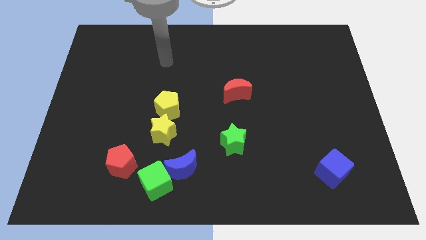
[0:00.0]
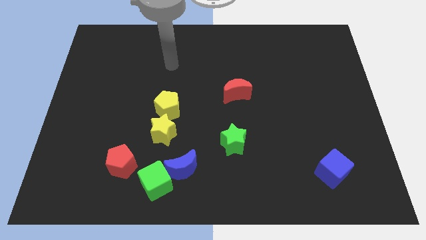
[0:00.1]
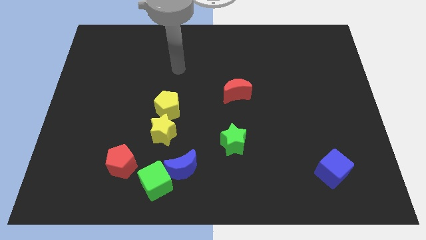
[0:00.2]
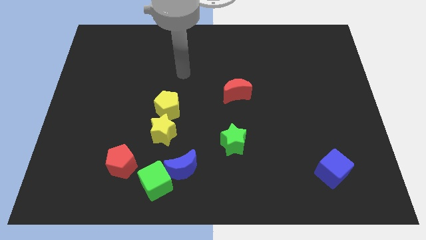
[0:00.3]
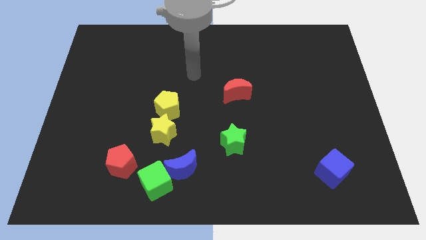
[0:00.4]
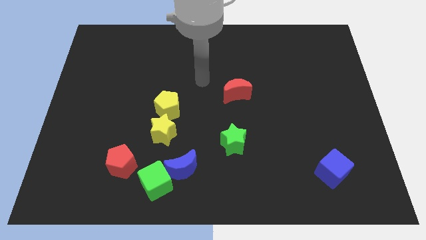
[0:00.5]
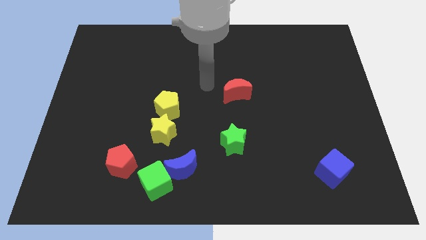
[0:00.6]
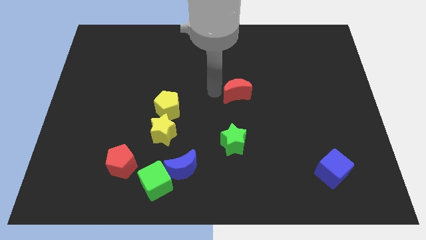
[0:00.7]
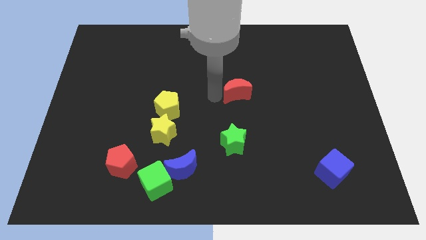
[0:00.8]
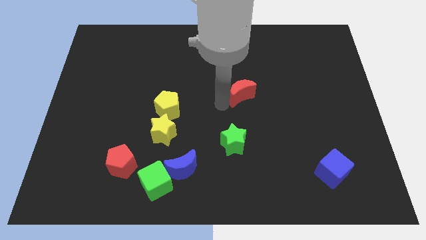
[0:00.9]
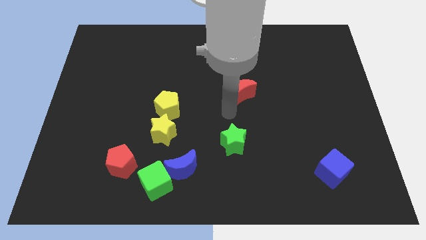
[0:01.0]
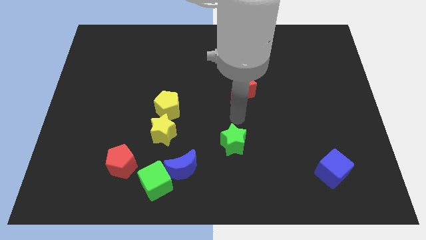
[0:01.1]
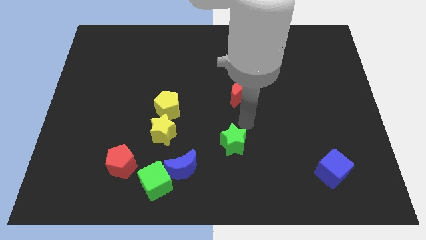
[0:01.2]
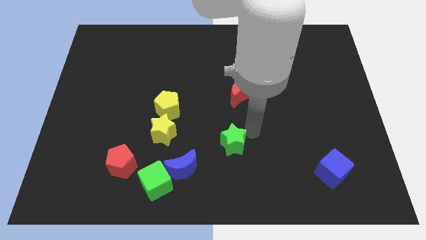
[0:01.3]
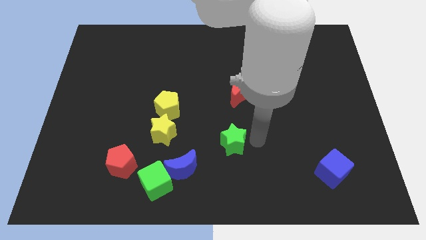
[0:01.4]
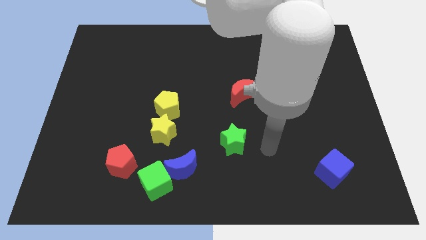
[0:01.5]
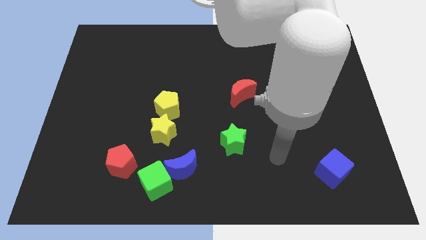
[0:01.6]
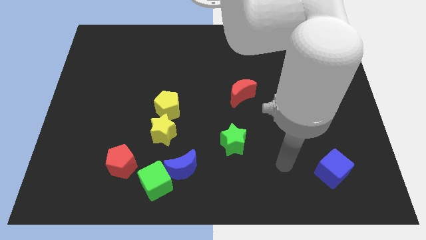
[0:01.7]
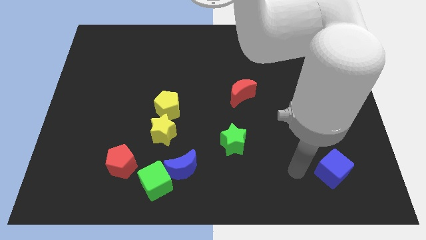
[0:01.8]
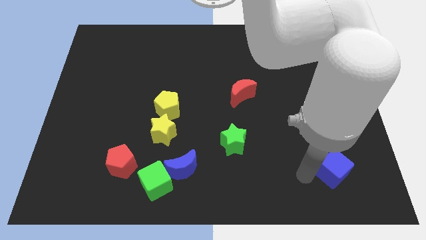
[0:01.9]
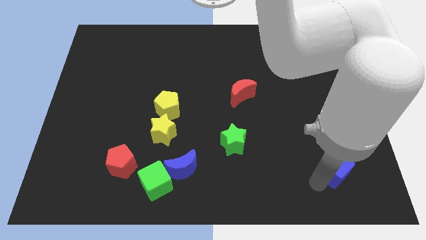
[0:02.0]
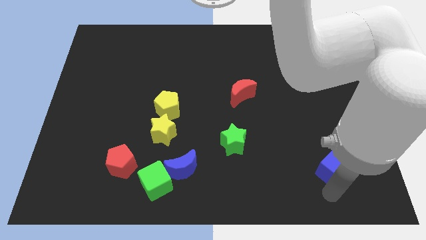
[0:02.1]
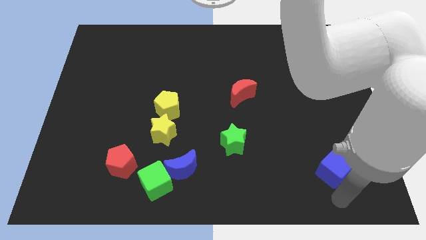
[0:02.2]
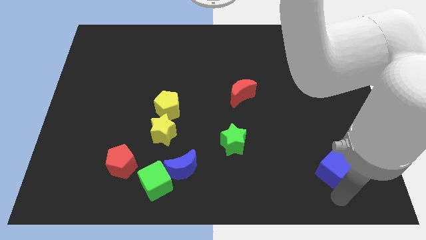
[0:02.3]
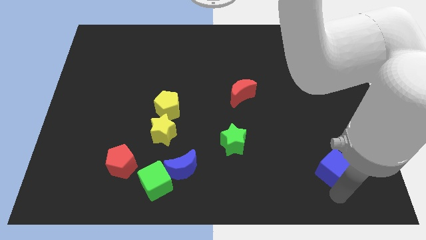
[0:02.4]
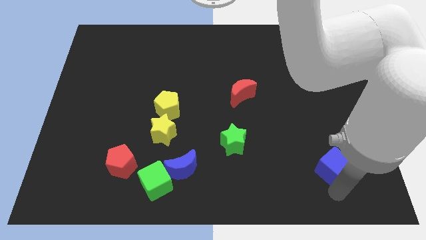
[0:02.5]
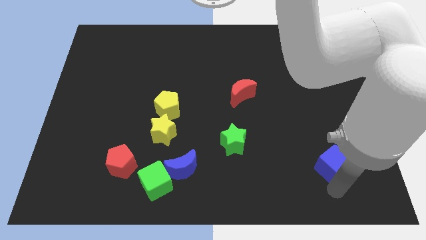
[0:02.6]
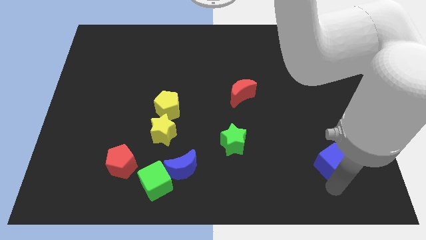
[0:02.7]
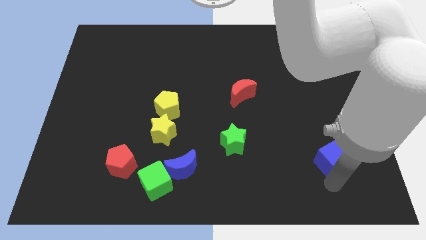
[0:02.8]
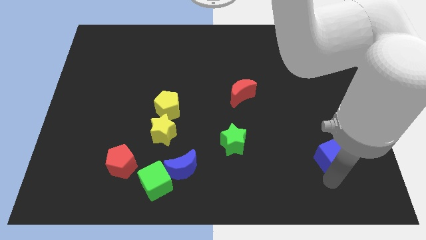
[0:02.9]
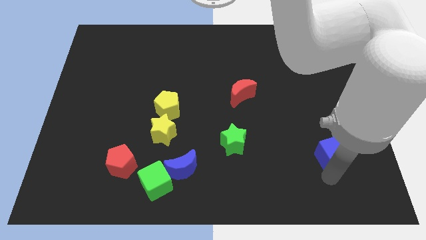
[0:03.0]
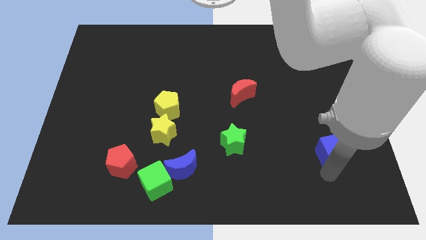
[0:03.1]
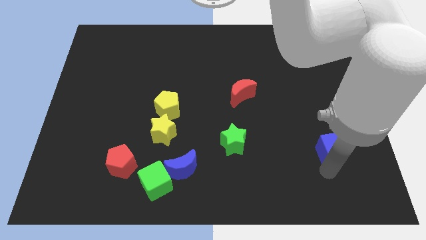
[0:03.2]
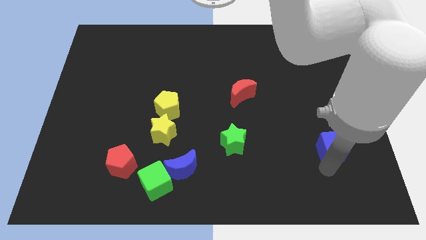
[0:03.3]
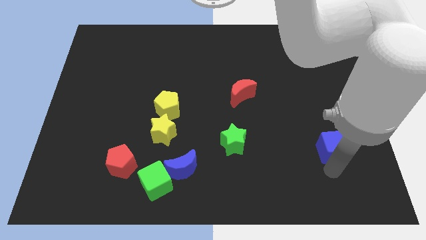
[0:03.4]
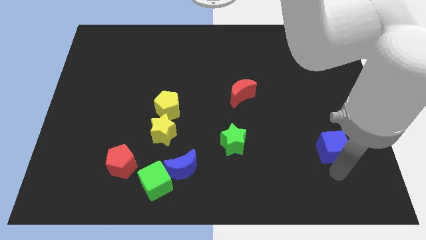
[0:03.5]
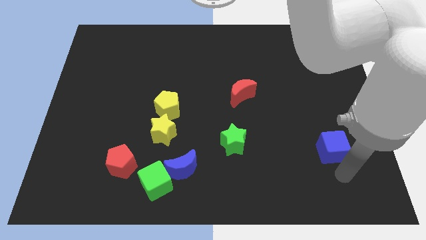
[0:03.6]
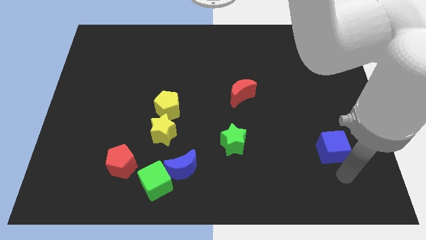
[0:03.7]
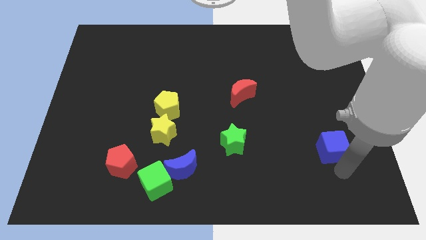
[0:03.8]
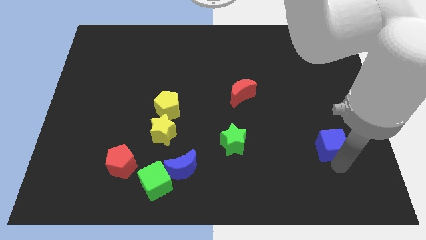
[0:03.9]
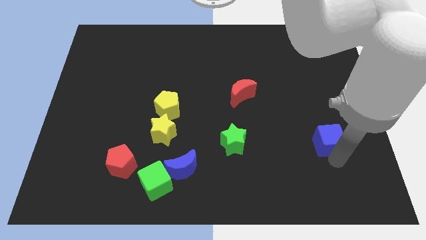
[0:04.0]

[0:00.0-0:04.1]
push the blue cube up somewhat

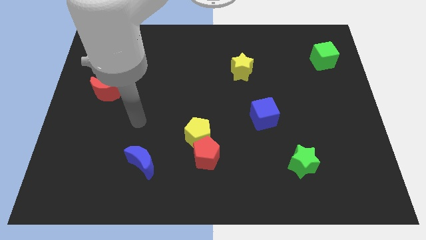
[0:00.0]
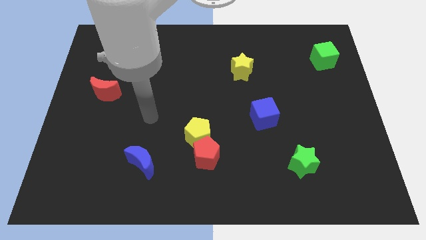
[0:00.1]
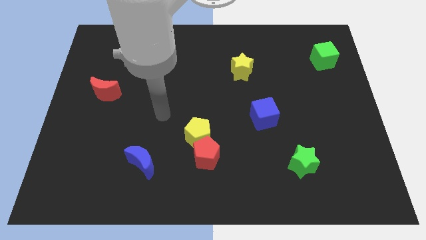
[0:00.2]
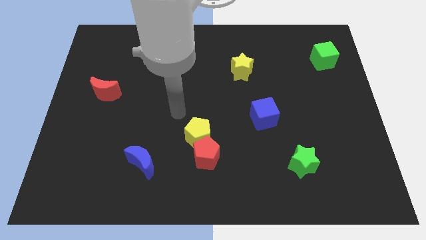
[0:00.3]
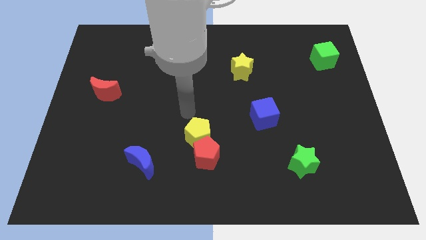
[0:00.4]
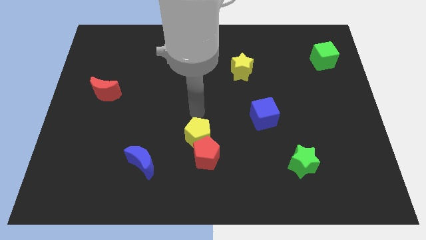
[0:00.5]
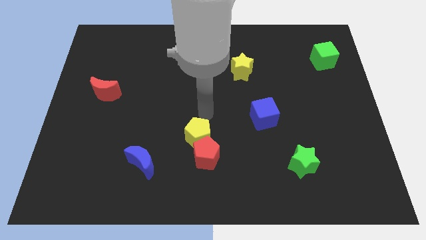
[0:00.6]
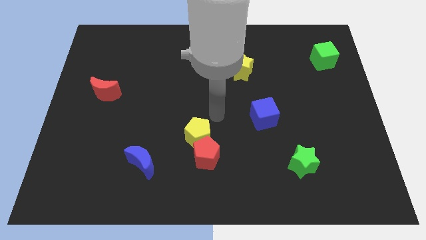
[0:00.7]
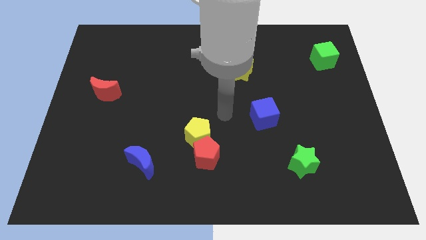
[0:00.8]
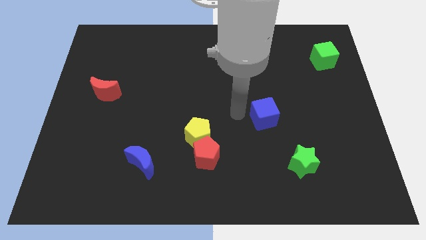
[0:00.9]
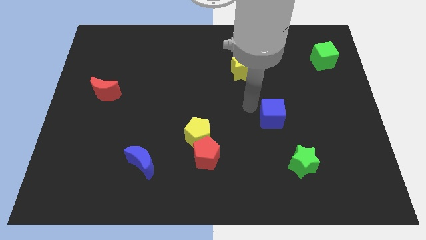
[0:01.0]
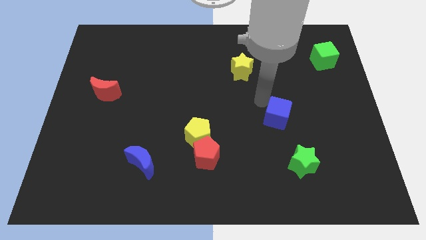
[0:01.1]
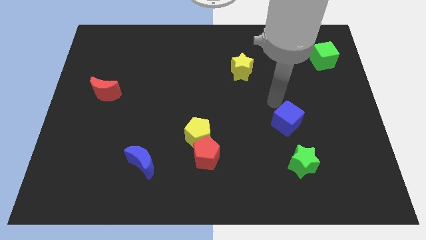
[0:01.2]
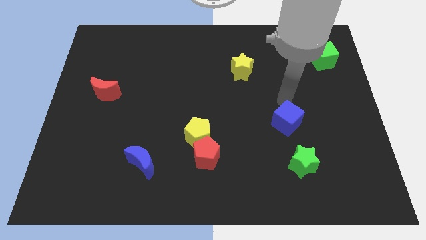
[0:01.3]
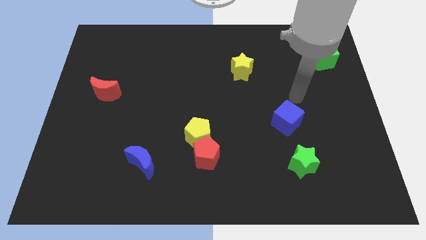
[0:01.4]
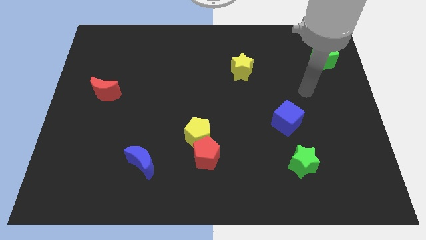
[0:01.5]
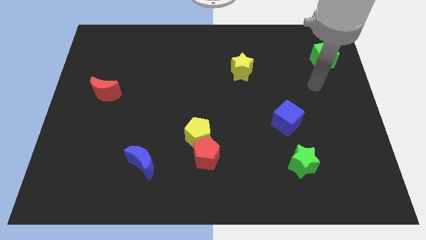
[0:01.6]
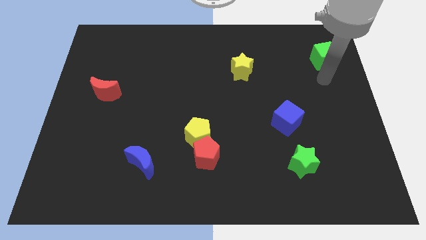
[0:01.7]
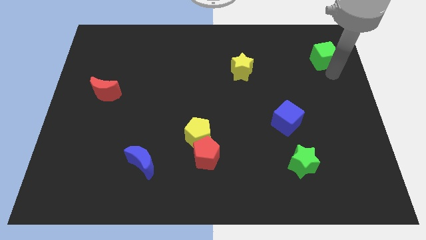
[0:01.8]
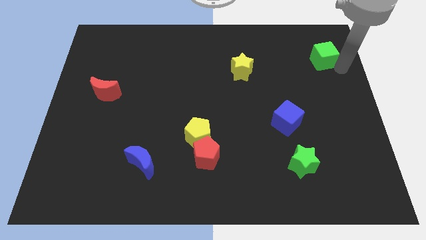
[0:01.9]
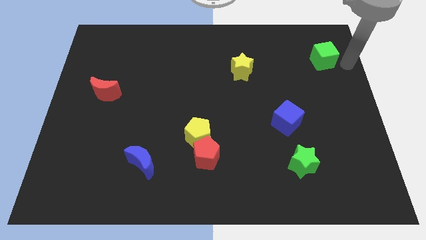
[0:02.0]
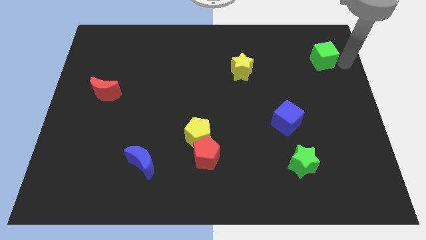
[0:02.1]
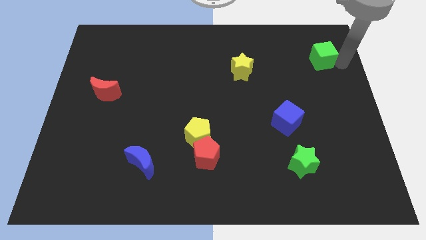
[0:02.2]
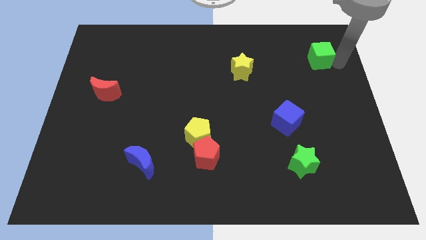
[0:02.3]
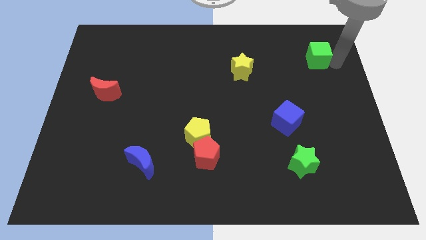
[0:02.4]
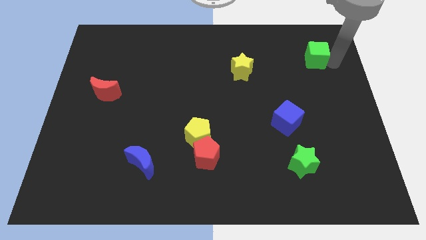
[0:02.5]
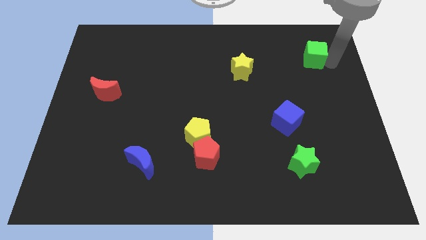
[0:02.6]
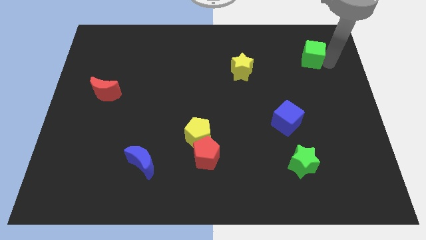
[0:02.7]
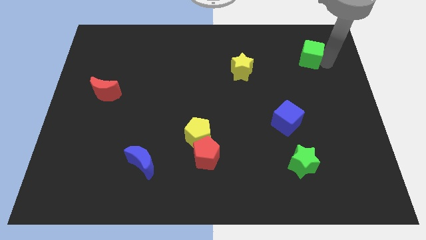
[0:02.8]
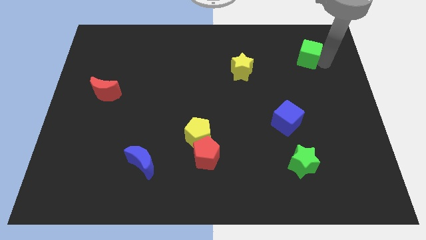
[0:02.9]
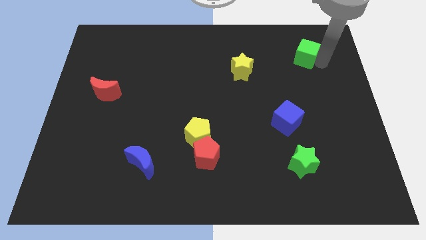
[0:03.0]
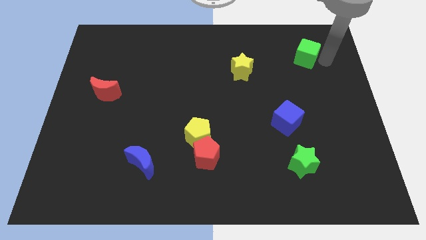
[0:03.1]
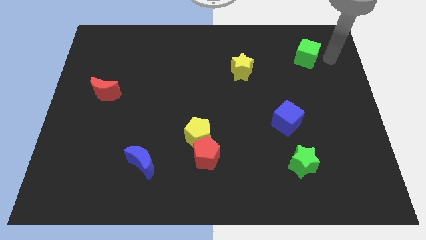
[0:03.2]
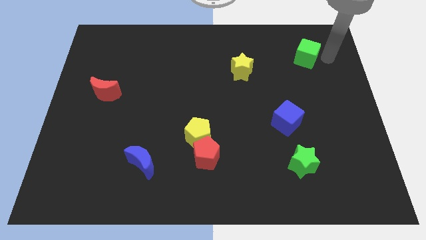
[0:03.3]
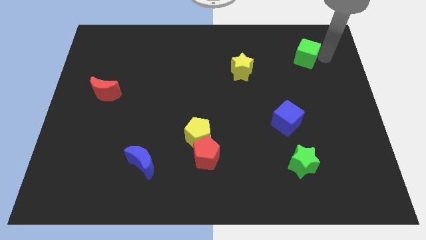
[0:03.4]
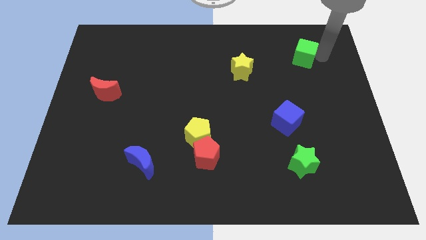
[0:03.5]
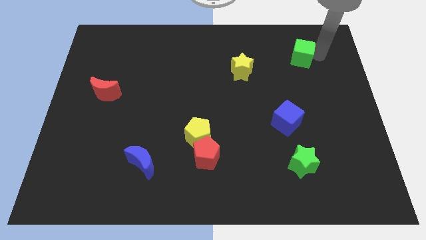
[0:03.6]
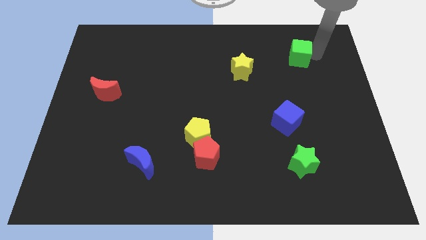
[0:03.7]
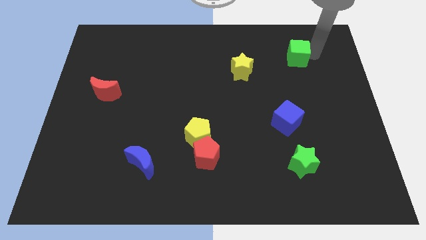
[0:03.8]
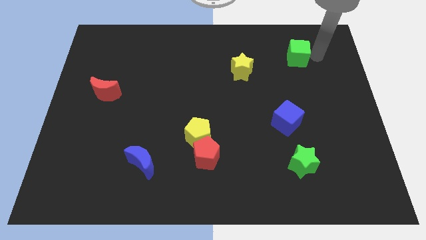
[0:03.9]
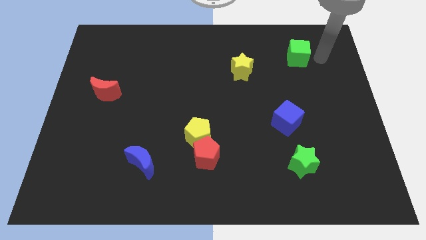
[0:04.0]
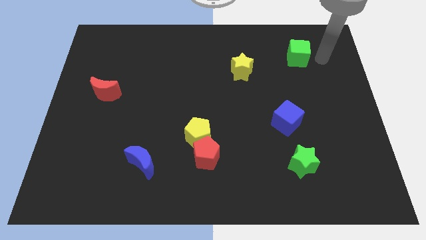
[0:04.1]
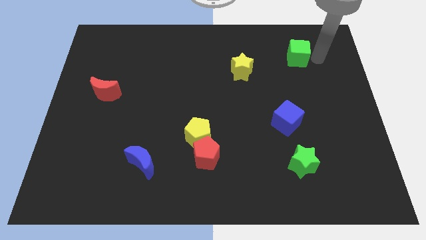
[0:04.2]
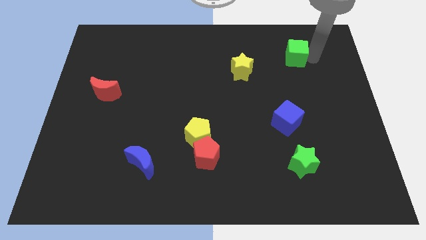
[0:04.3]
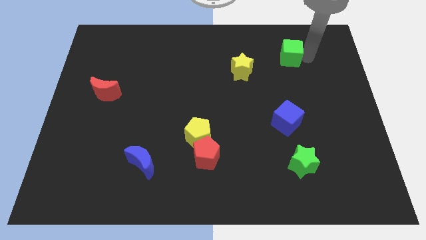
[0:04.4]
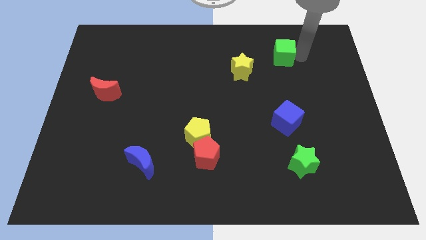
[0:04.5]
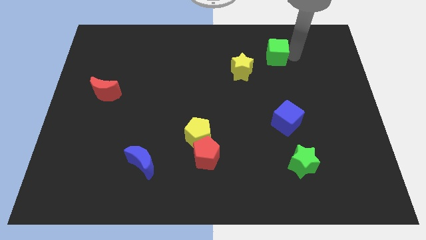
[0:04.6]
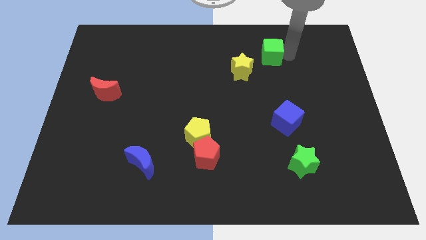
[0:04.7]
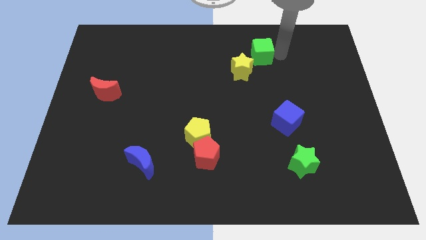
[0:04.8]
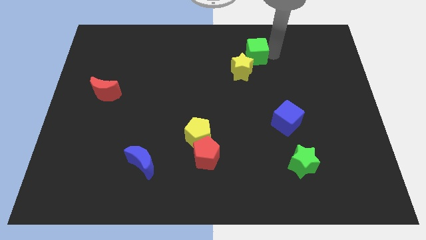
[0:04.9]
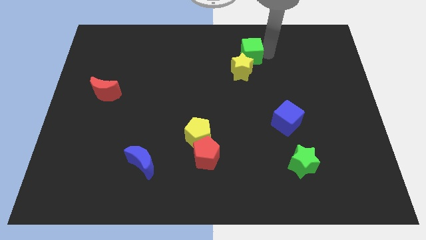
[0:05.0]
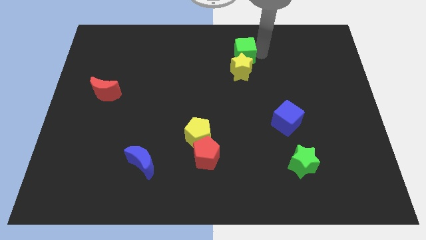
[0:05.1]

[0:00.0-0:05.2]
move the green cube left
